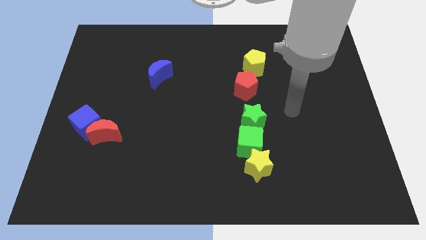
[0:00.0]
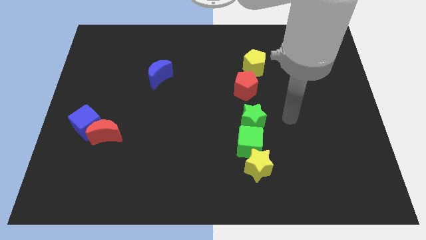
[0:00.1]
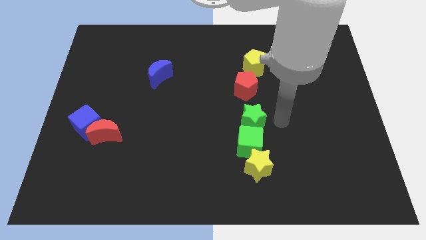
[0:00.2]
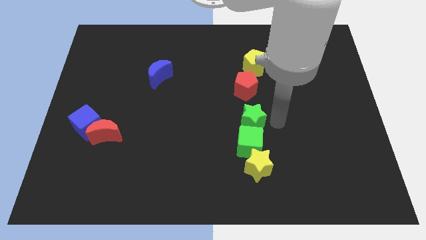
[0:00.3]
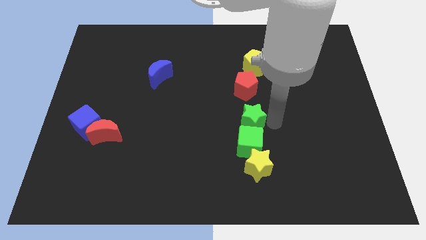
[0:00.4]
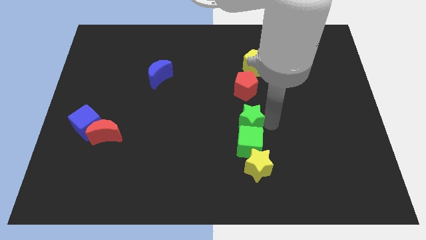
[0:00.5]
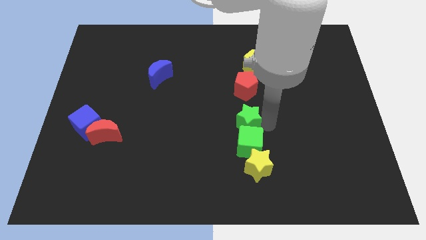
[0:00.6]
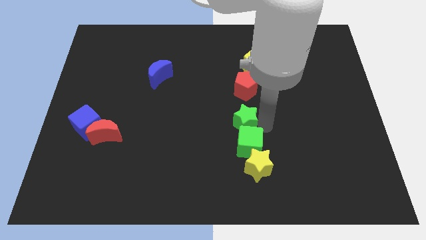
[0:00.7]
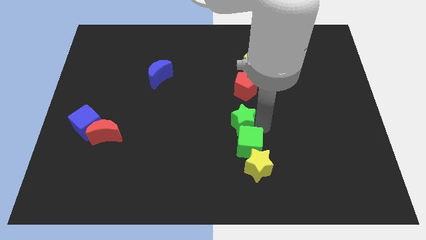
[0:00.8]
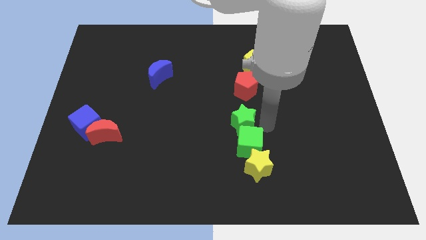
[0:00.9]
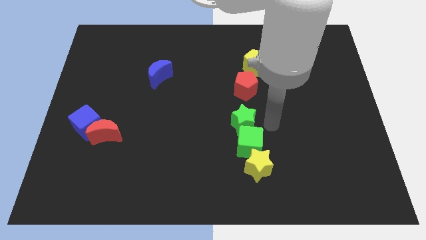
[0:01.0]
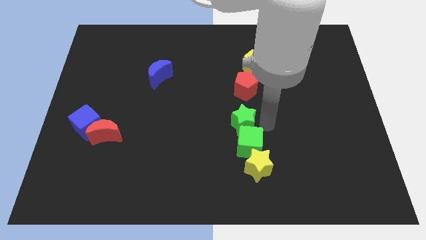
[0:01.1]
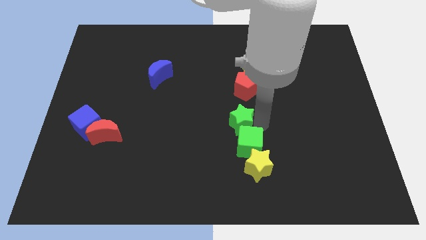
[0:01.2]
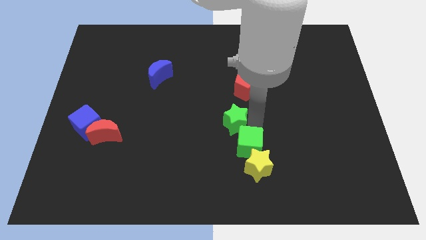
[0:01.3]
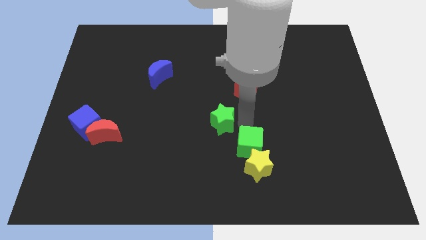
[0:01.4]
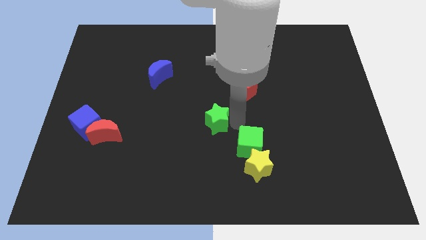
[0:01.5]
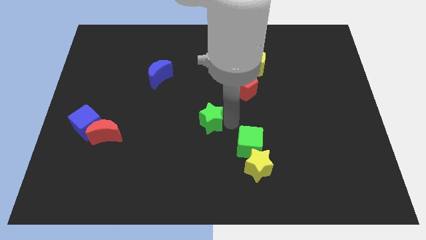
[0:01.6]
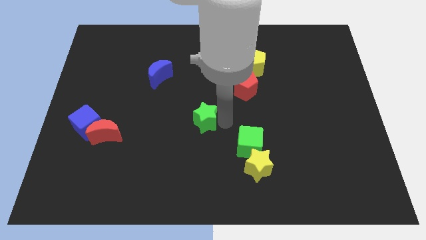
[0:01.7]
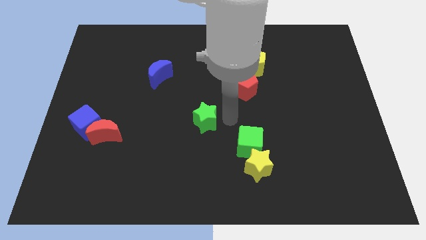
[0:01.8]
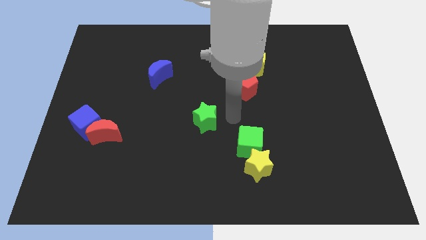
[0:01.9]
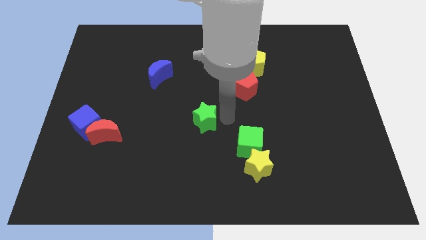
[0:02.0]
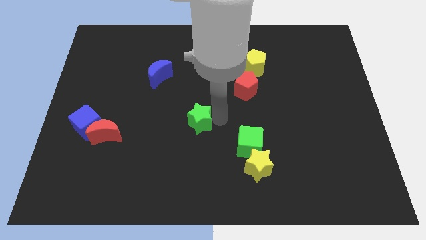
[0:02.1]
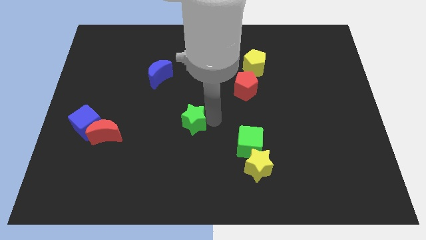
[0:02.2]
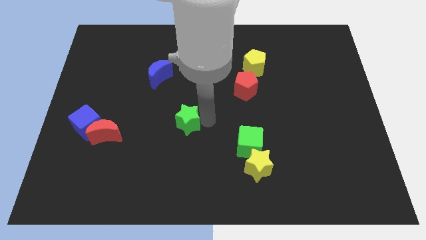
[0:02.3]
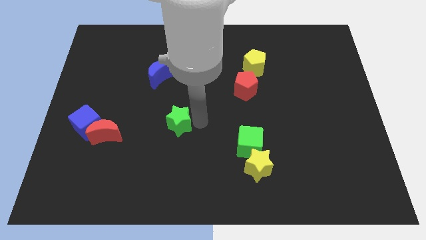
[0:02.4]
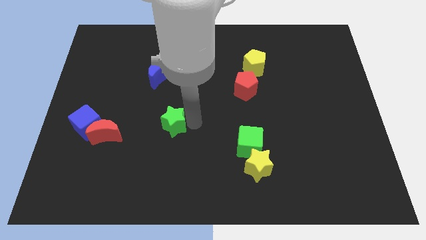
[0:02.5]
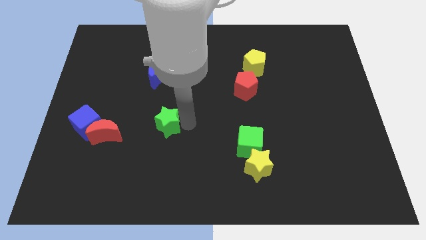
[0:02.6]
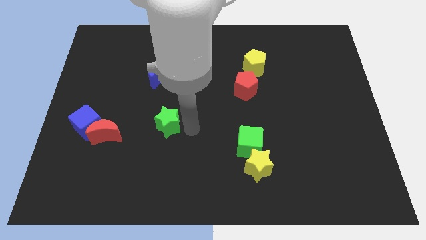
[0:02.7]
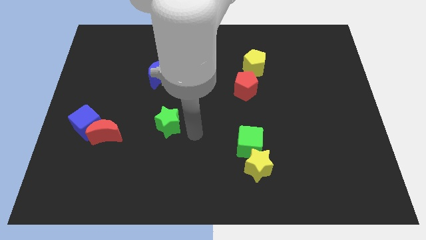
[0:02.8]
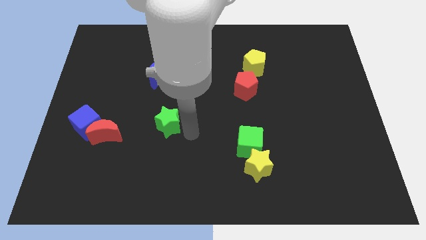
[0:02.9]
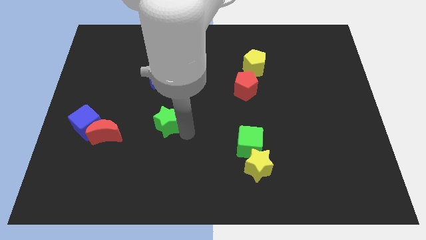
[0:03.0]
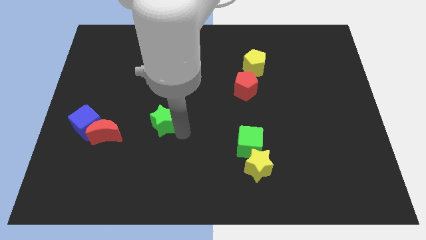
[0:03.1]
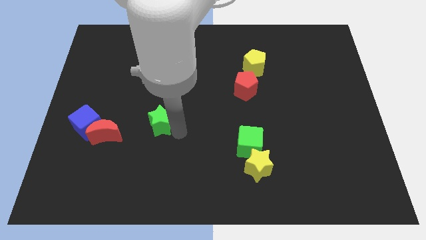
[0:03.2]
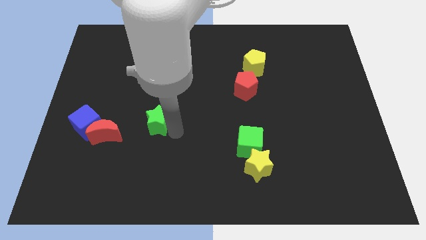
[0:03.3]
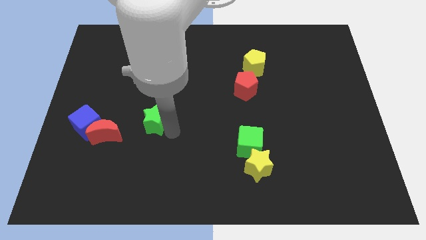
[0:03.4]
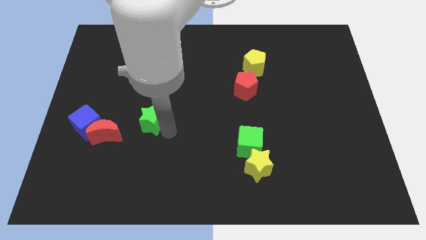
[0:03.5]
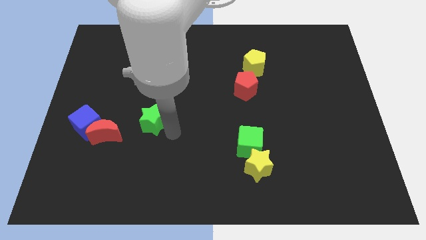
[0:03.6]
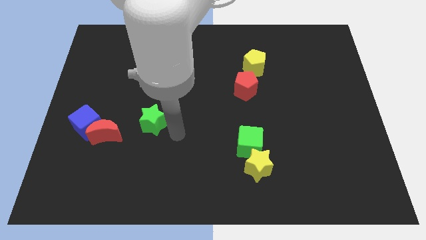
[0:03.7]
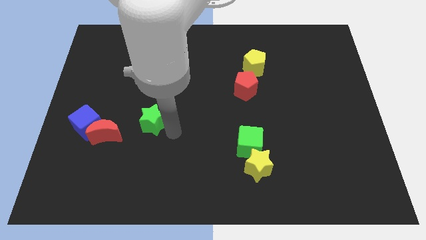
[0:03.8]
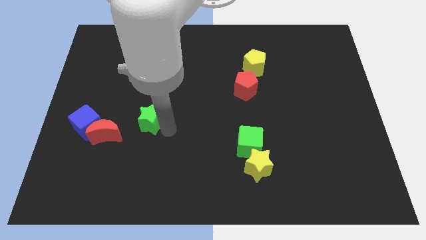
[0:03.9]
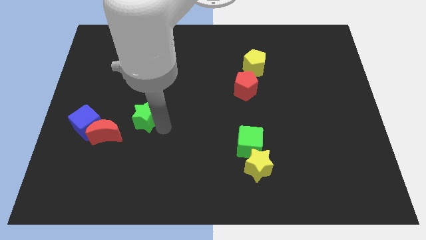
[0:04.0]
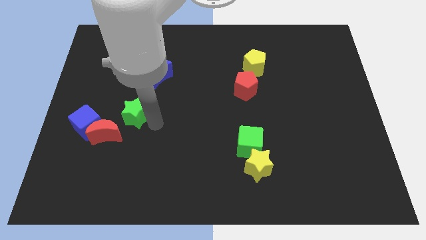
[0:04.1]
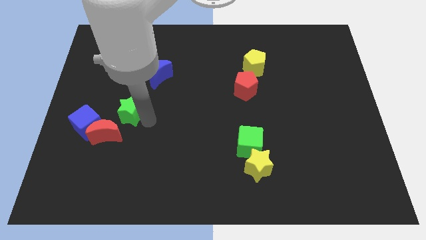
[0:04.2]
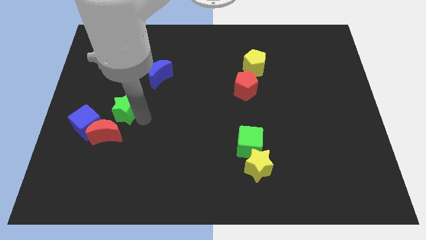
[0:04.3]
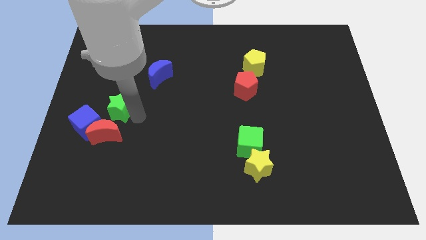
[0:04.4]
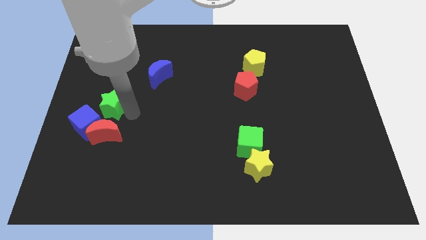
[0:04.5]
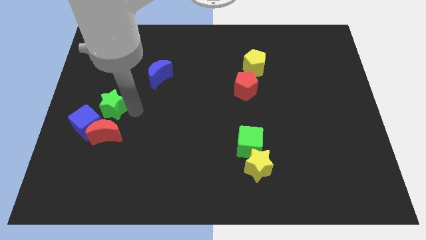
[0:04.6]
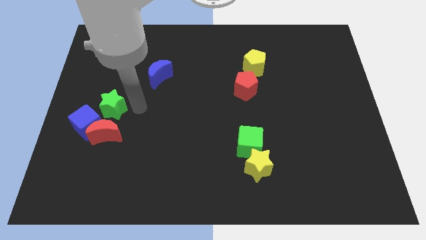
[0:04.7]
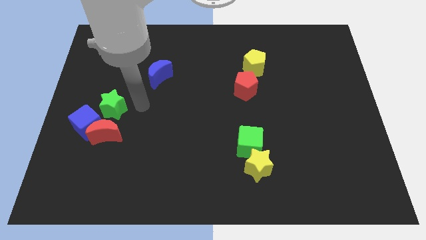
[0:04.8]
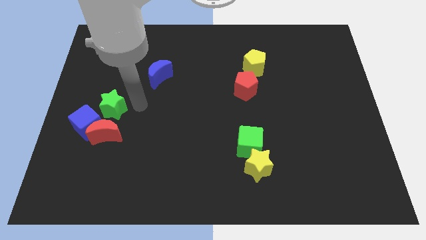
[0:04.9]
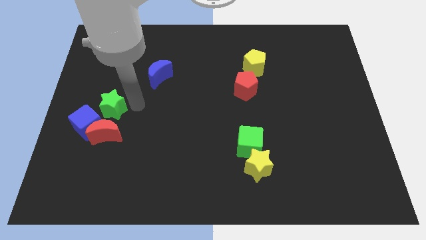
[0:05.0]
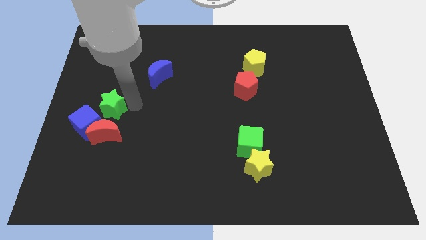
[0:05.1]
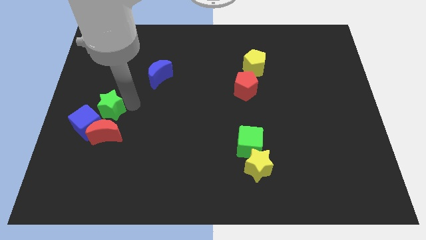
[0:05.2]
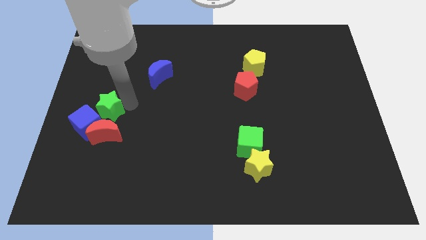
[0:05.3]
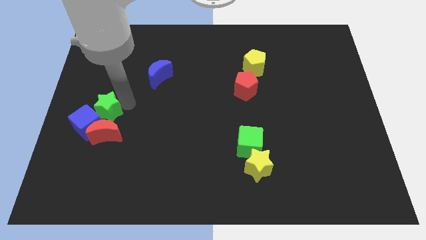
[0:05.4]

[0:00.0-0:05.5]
move the green star next to the blue cube
